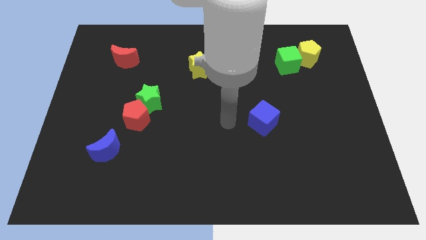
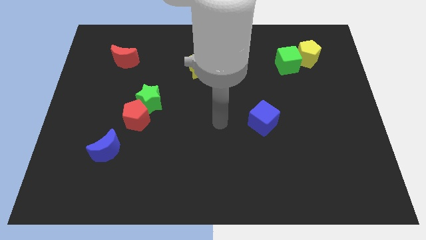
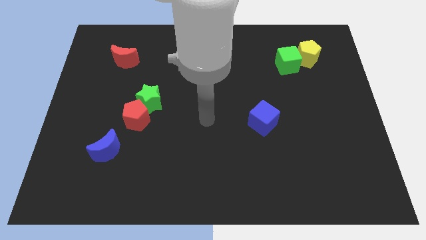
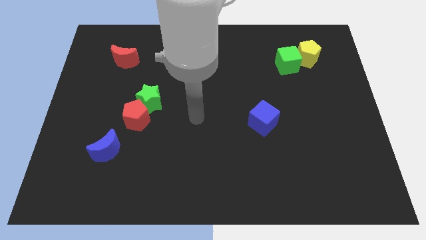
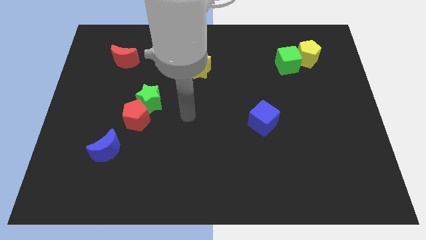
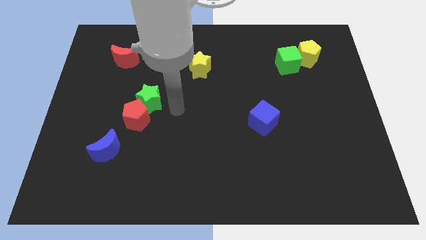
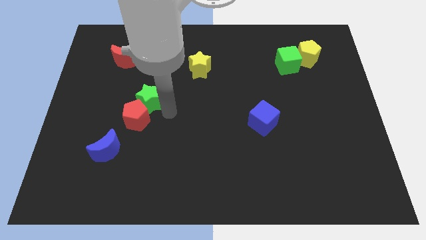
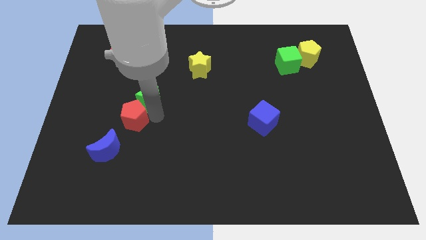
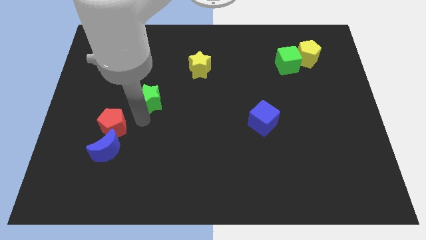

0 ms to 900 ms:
move the green star away from the red pentagon

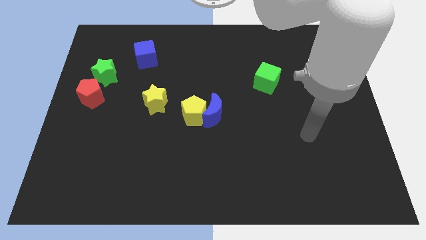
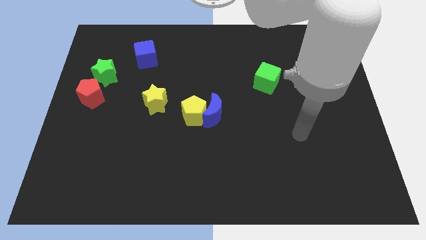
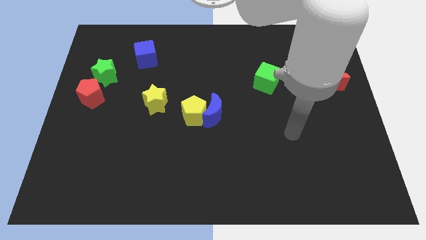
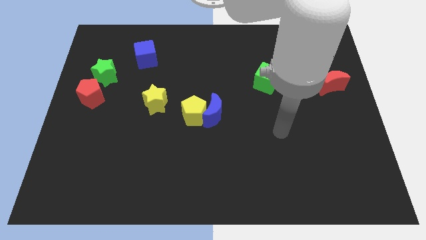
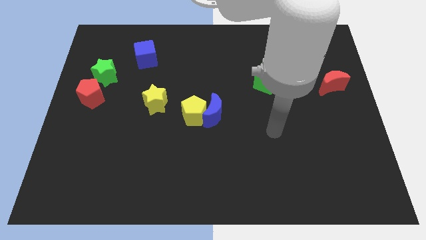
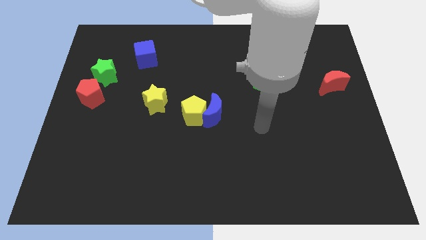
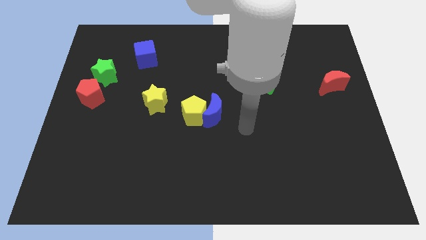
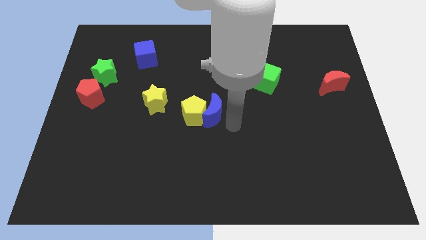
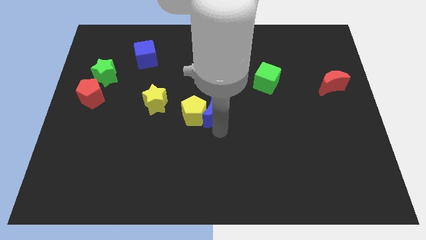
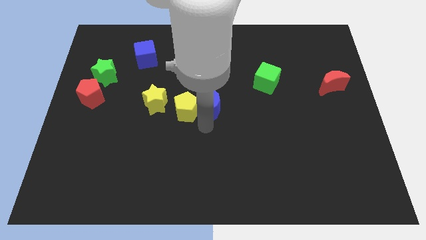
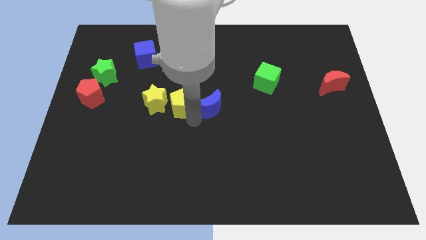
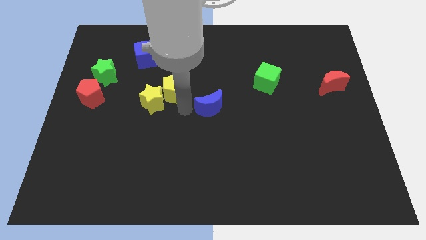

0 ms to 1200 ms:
pull the blue moon apart from the yellow pentagon

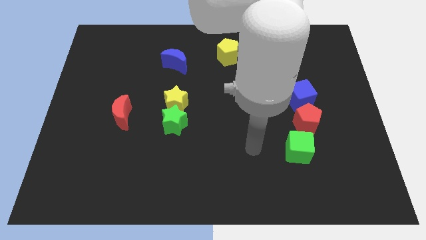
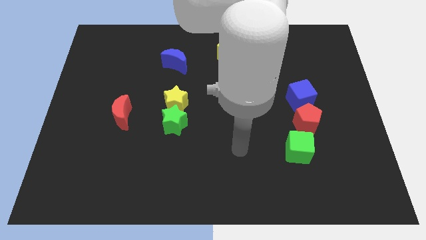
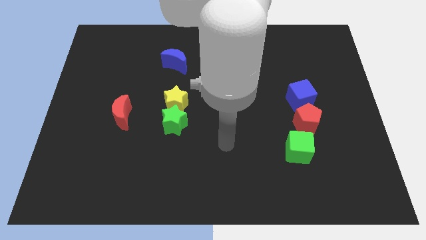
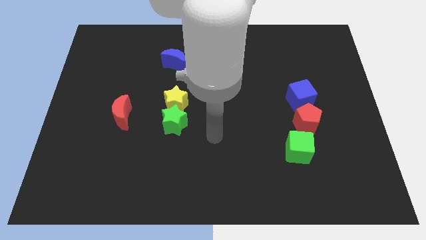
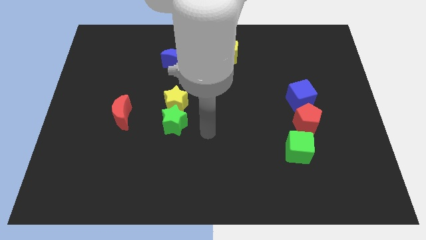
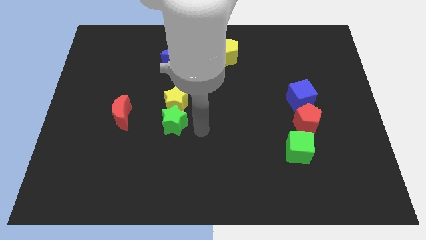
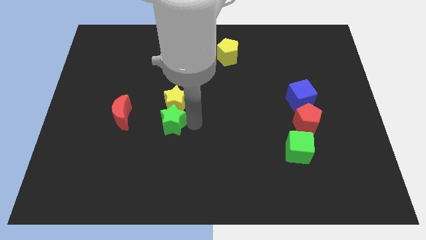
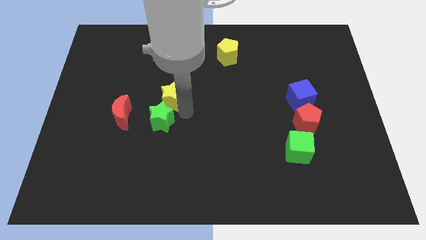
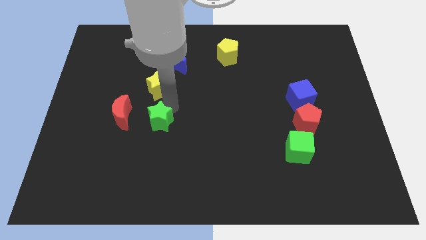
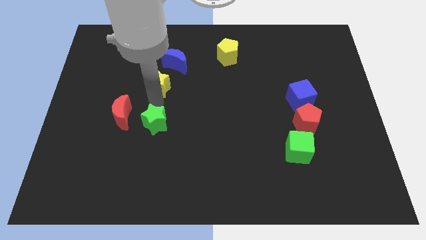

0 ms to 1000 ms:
move the green star away from the yellow star

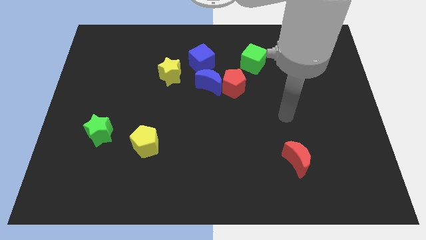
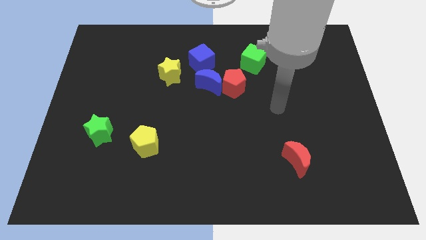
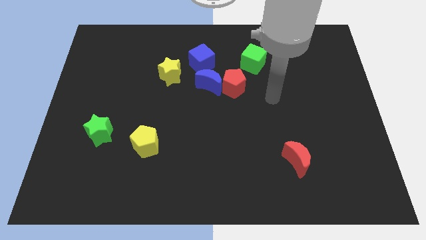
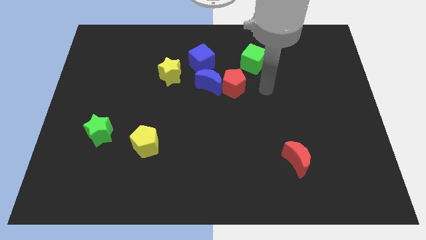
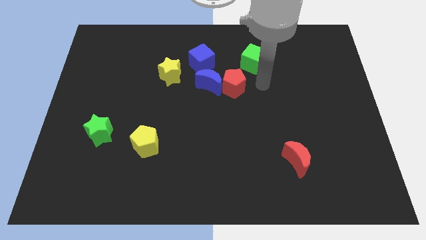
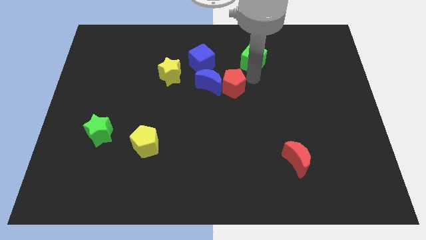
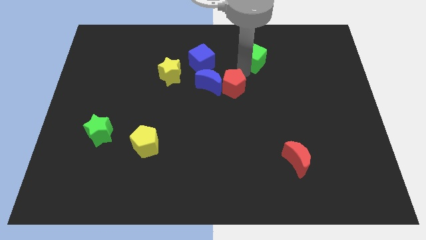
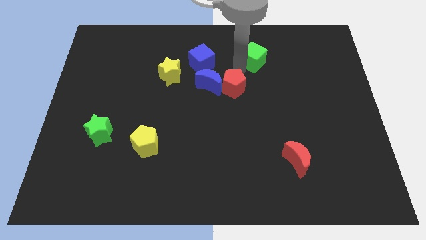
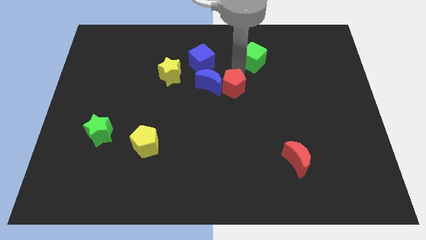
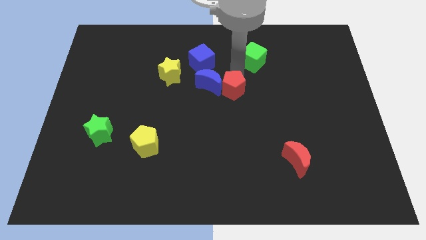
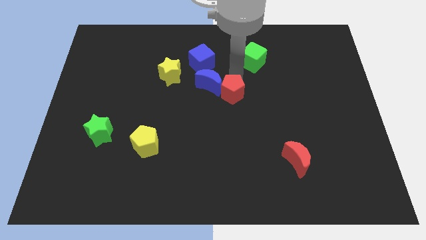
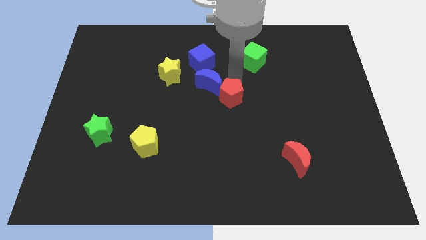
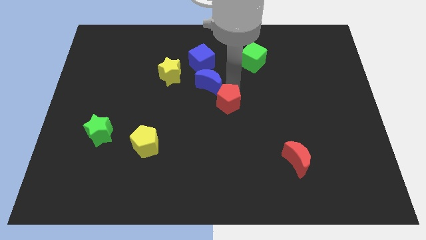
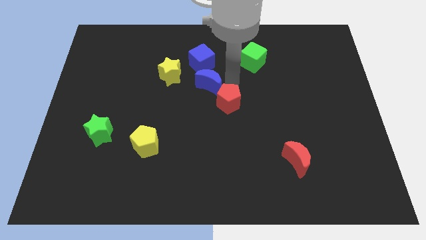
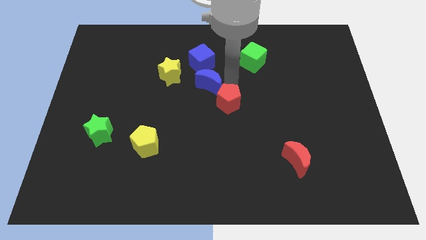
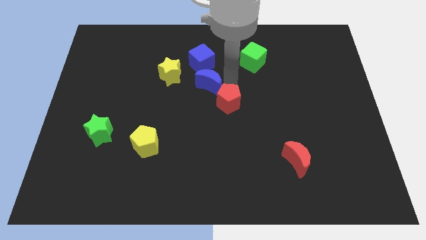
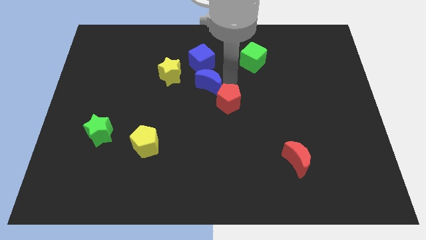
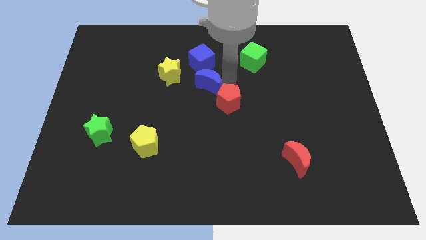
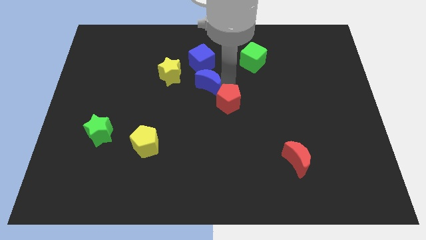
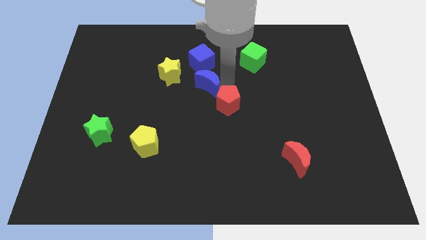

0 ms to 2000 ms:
separate the red pentagon from the blue moon and green cube

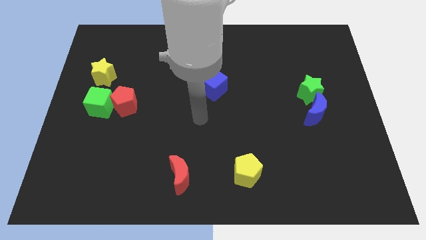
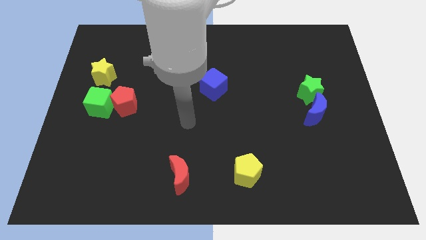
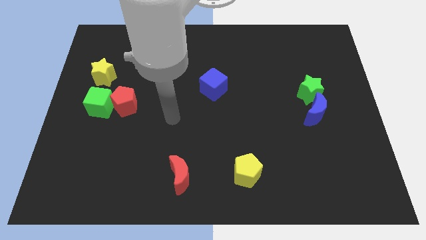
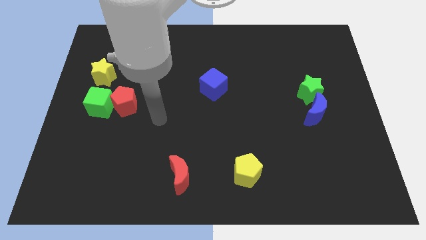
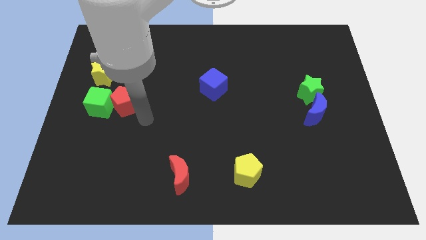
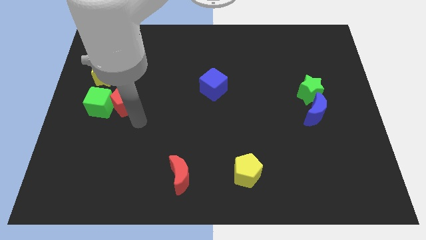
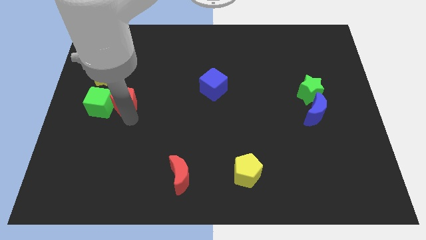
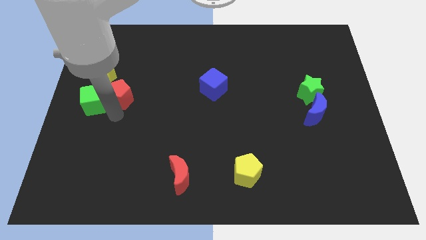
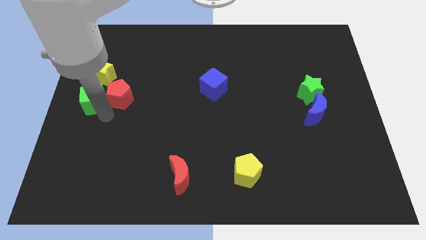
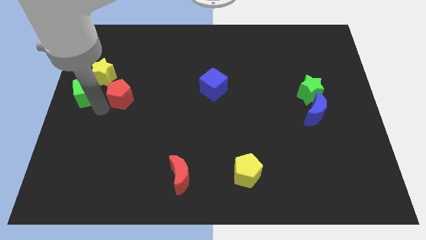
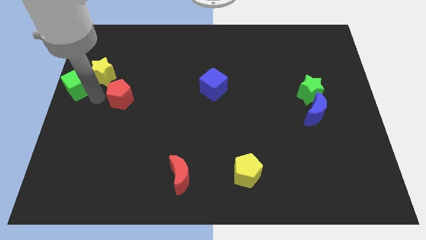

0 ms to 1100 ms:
move the red pentagon away from the green cube

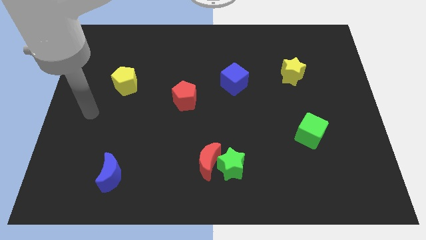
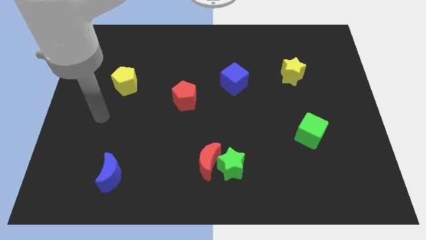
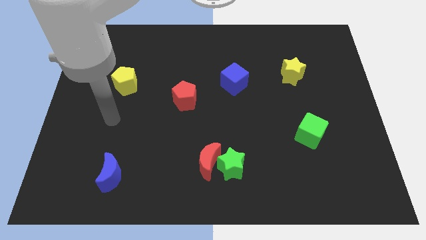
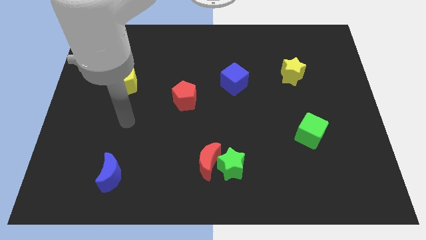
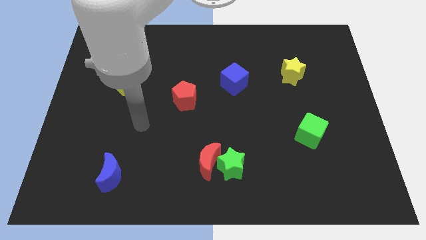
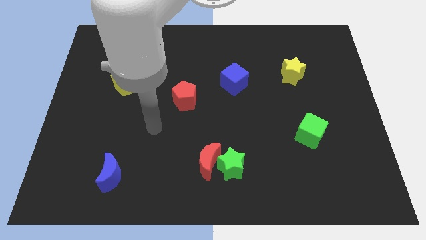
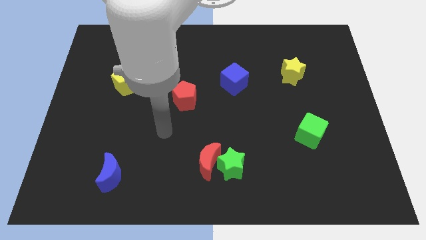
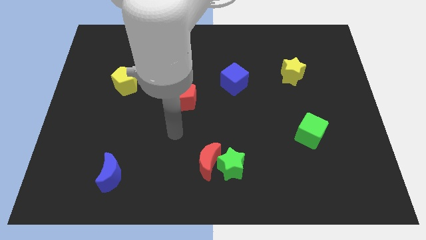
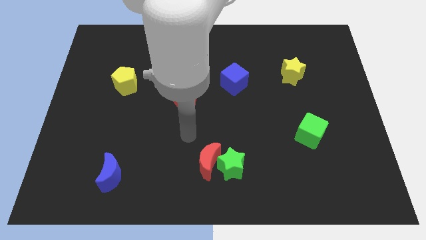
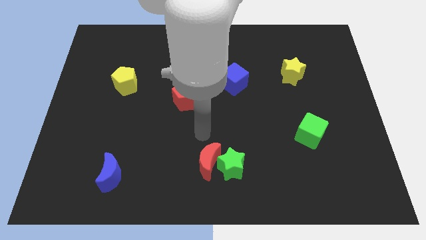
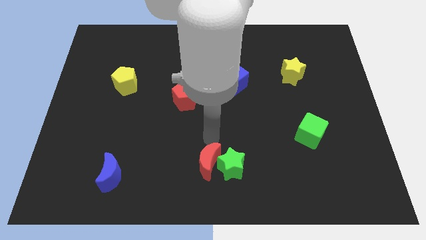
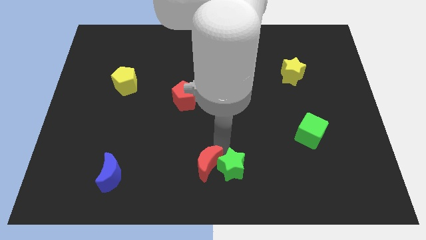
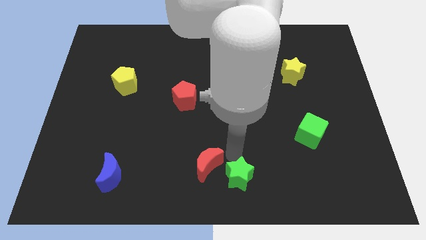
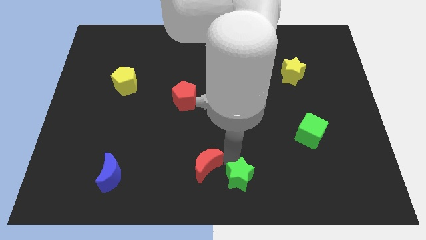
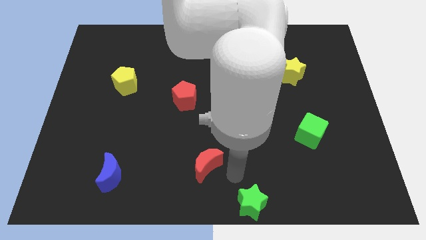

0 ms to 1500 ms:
separate the red moon from the green star

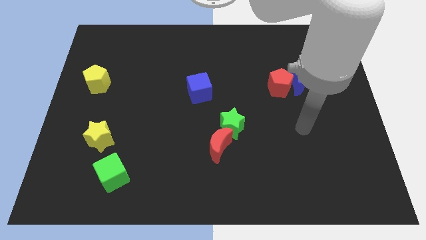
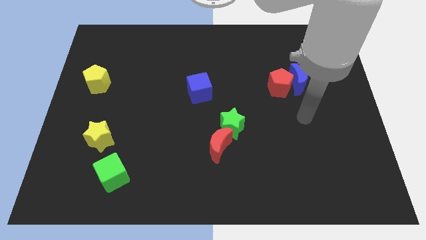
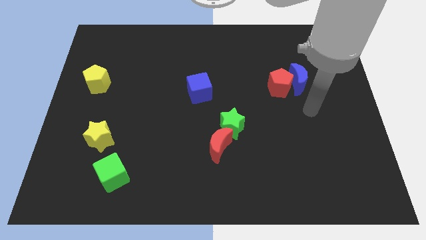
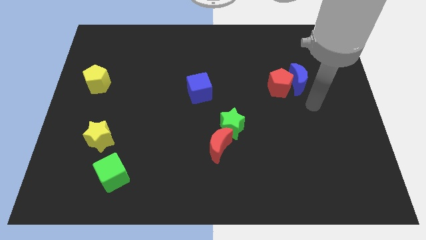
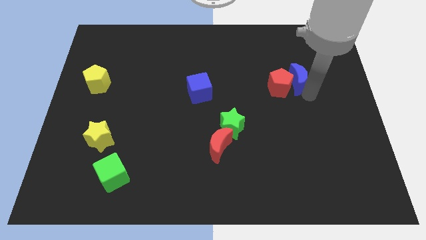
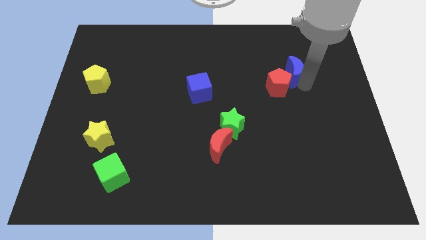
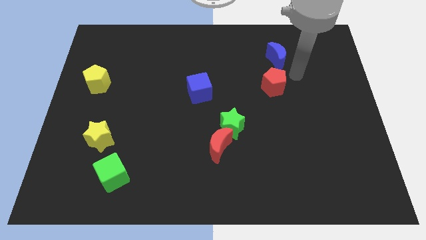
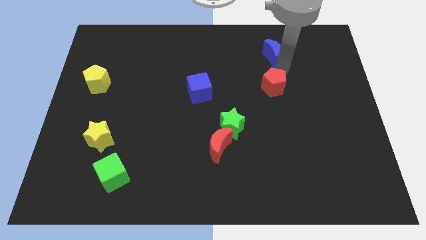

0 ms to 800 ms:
separate the red pentagon from the blue moon

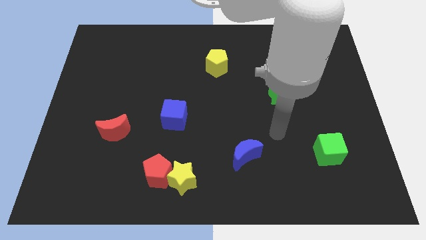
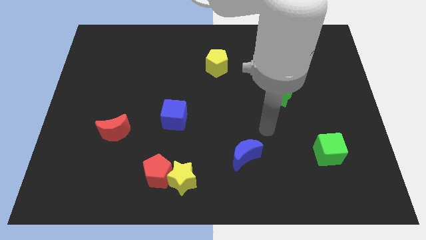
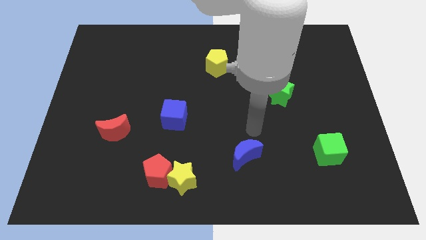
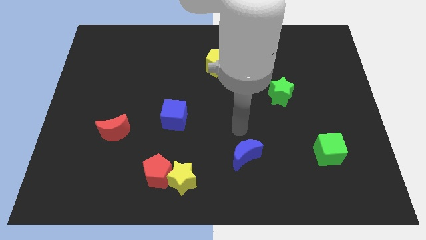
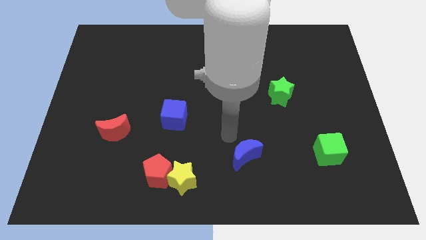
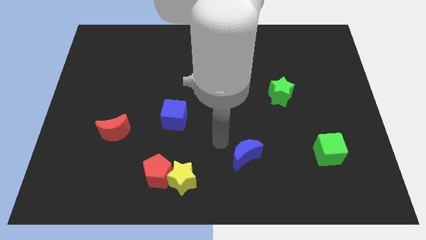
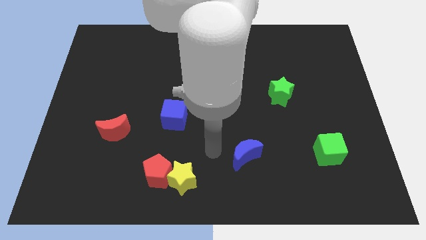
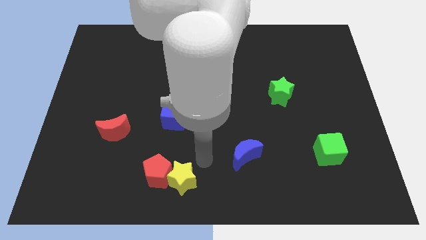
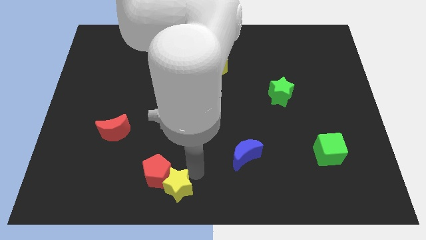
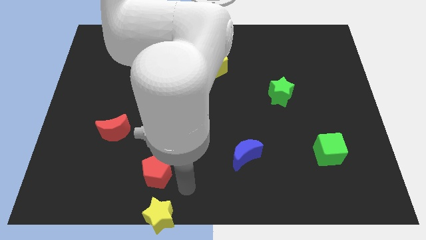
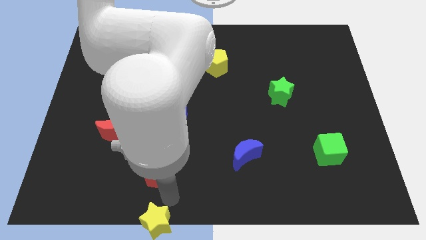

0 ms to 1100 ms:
move the red pentagon away from the yellow star
